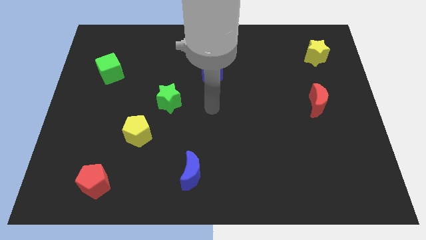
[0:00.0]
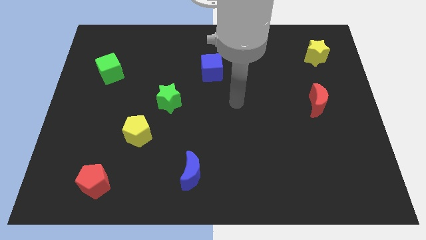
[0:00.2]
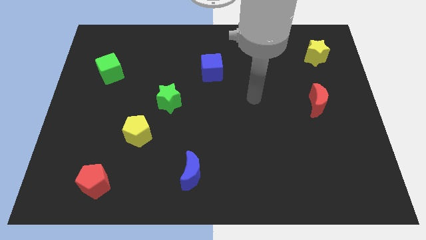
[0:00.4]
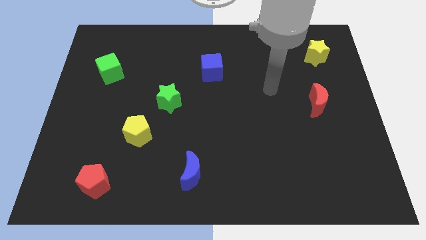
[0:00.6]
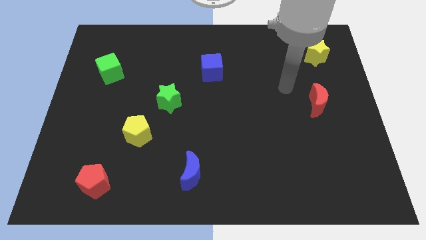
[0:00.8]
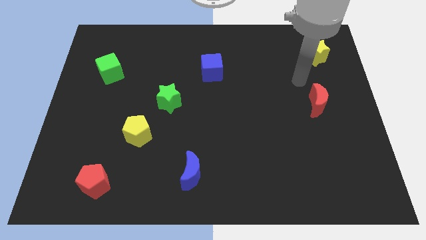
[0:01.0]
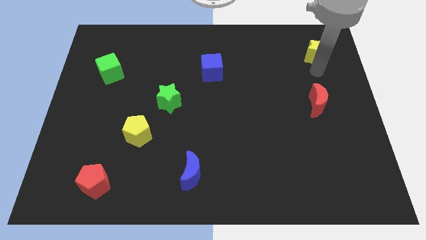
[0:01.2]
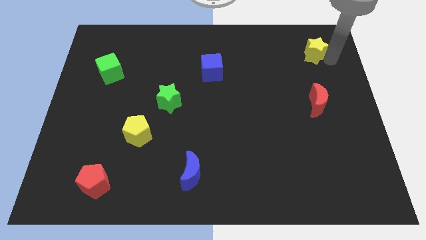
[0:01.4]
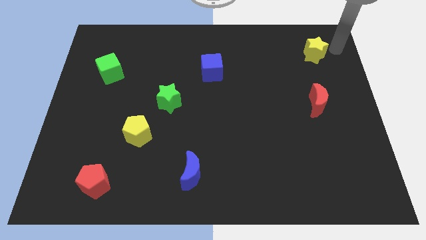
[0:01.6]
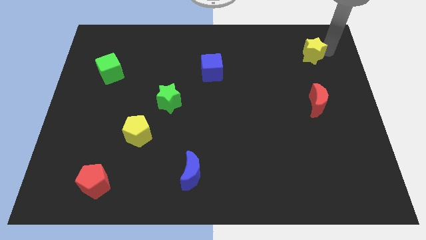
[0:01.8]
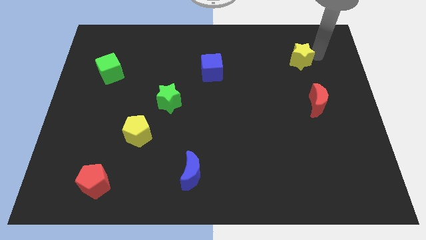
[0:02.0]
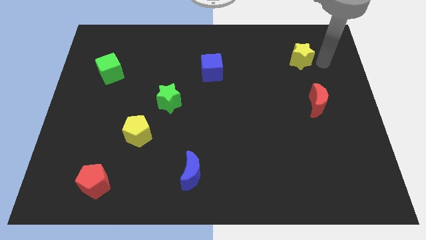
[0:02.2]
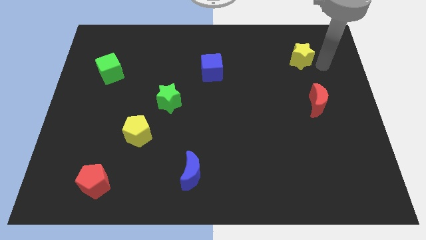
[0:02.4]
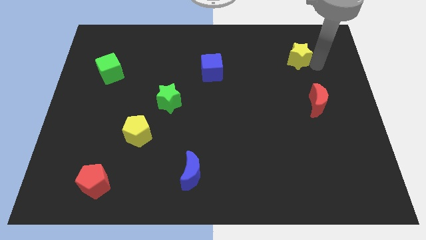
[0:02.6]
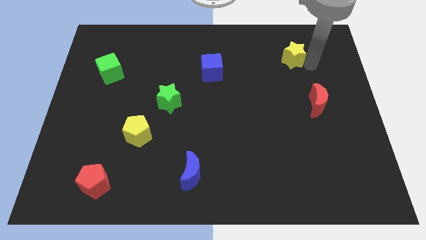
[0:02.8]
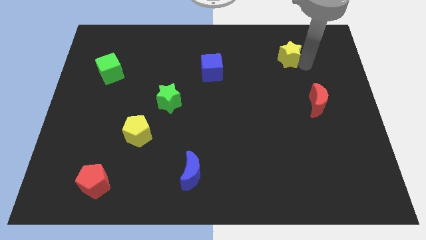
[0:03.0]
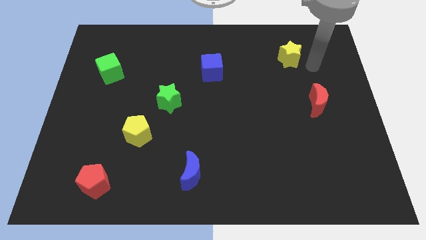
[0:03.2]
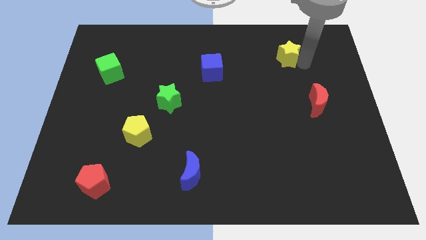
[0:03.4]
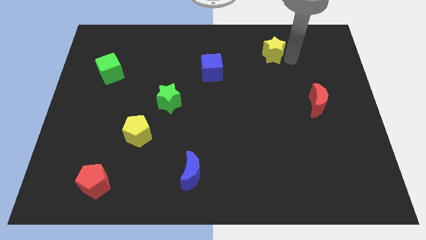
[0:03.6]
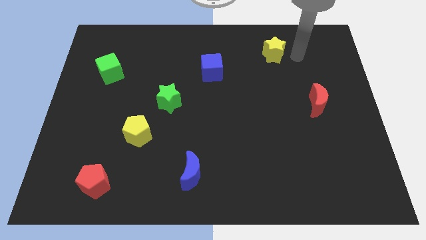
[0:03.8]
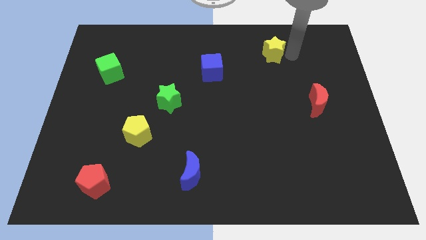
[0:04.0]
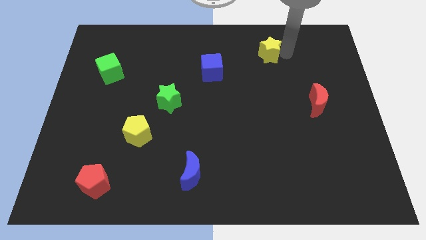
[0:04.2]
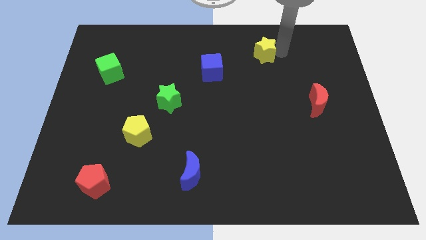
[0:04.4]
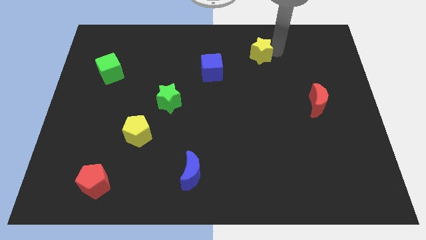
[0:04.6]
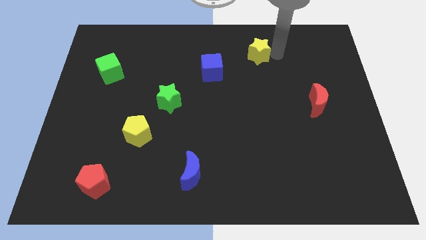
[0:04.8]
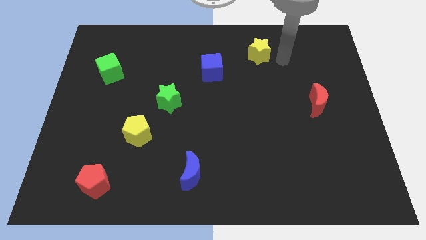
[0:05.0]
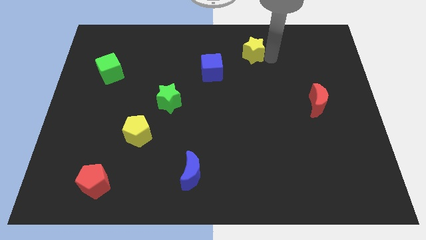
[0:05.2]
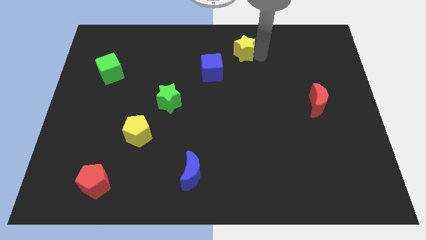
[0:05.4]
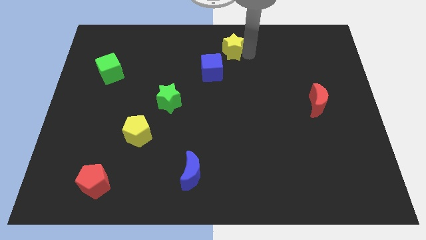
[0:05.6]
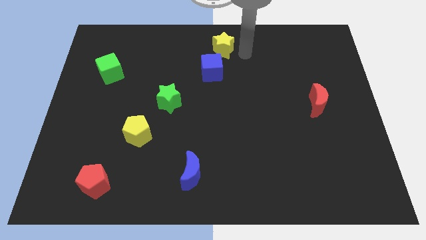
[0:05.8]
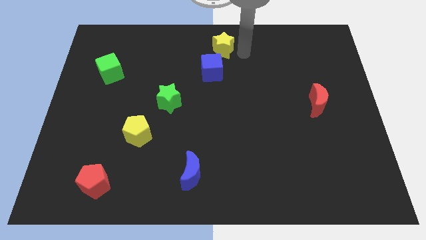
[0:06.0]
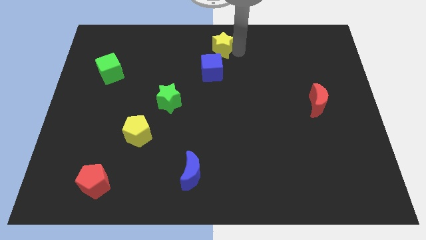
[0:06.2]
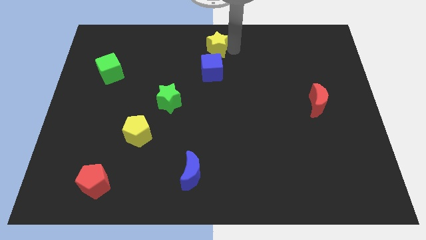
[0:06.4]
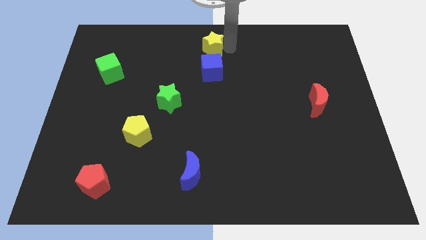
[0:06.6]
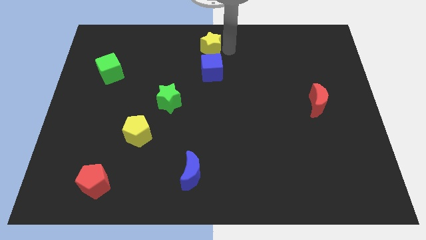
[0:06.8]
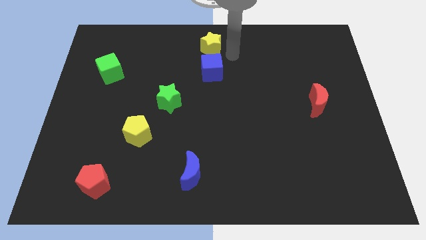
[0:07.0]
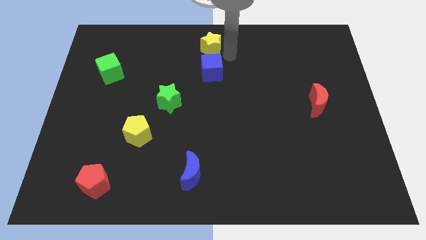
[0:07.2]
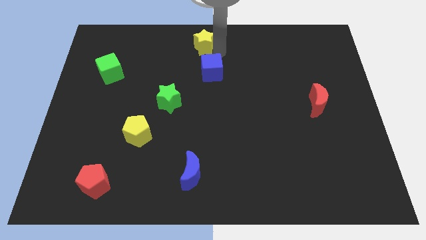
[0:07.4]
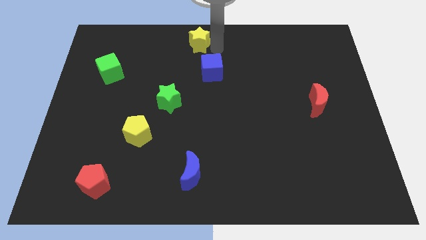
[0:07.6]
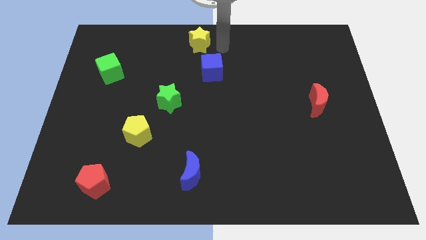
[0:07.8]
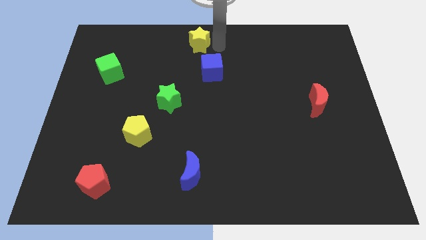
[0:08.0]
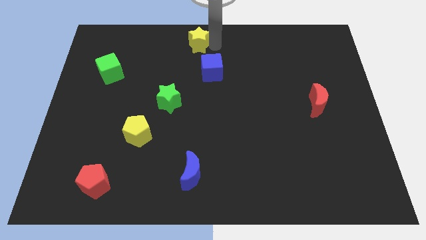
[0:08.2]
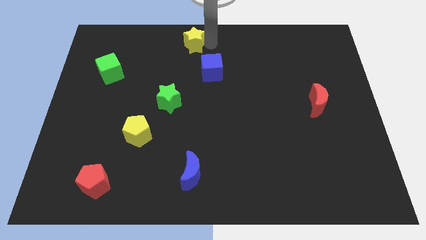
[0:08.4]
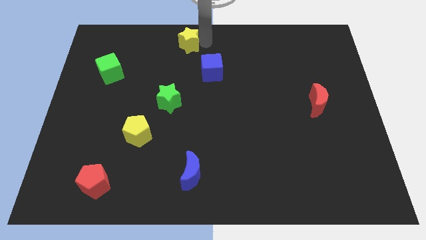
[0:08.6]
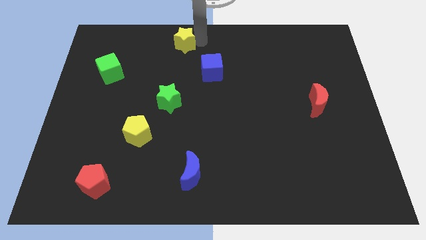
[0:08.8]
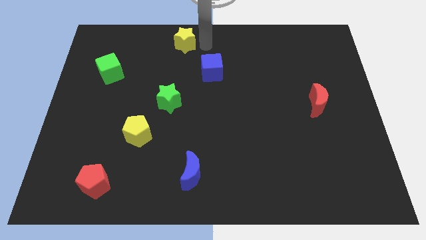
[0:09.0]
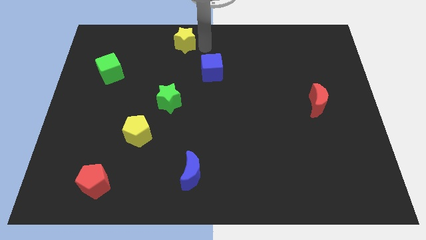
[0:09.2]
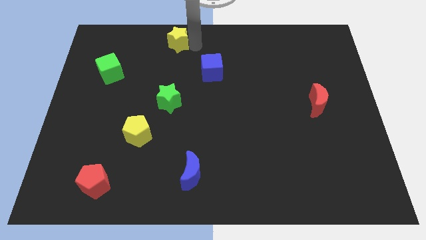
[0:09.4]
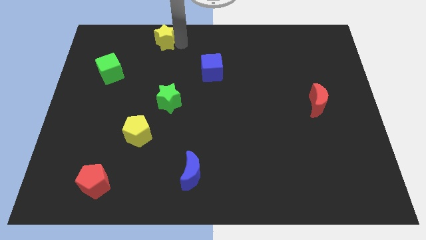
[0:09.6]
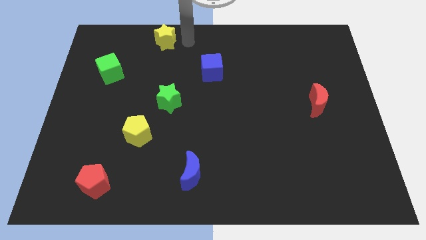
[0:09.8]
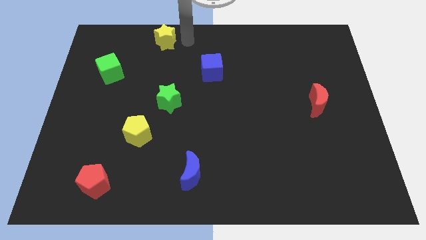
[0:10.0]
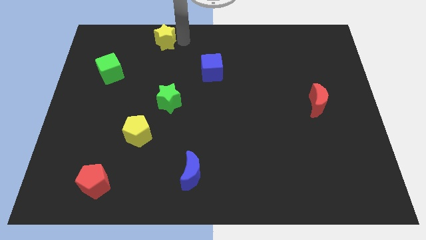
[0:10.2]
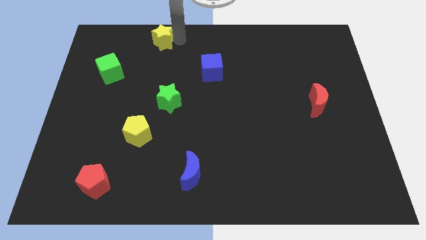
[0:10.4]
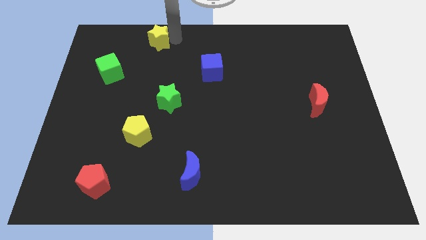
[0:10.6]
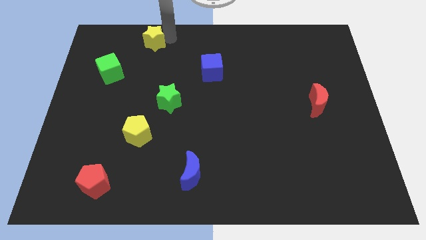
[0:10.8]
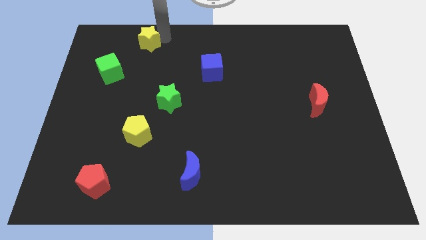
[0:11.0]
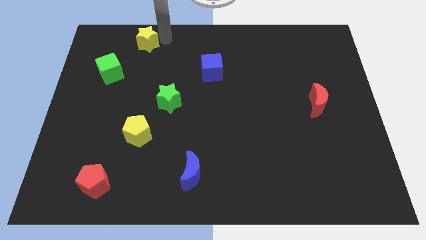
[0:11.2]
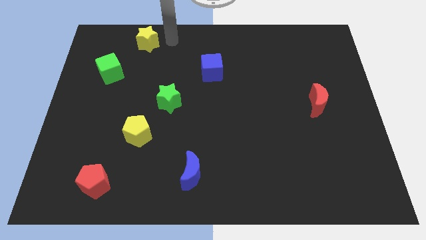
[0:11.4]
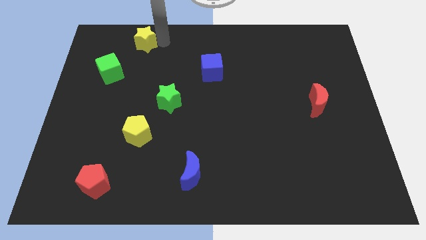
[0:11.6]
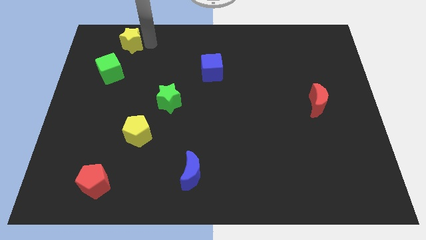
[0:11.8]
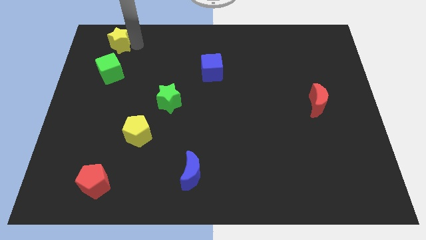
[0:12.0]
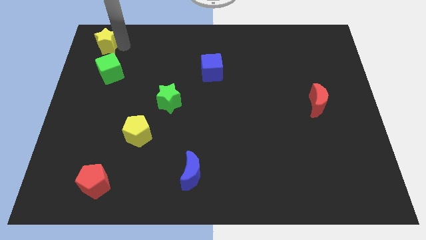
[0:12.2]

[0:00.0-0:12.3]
slide the yellow star to the top left
